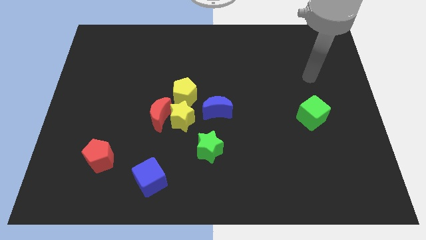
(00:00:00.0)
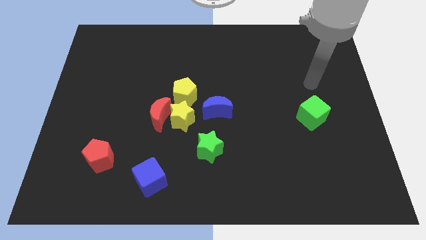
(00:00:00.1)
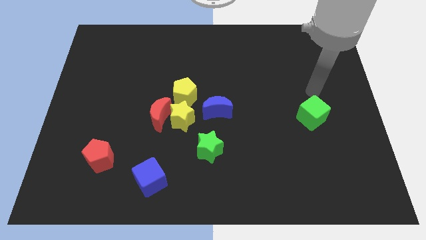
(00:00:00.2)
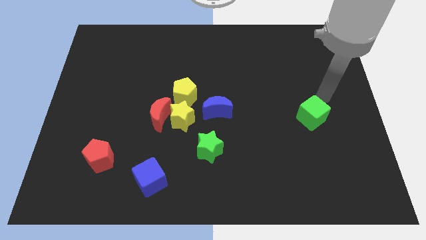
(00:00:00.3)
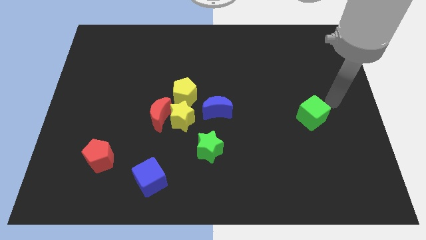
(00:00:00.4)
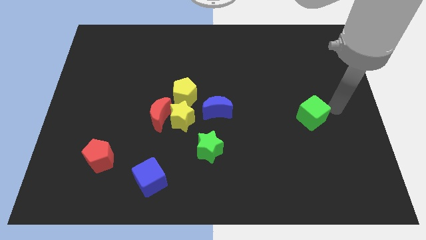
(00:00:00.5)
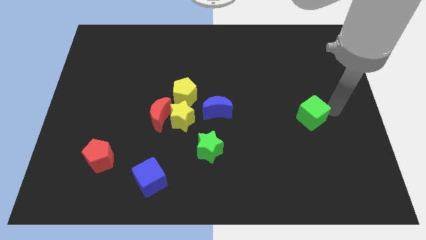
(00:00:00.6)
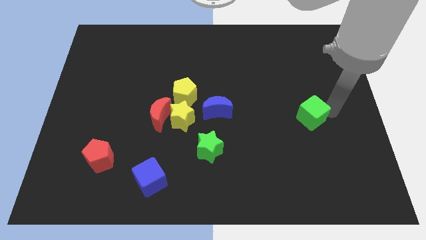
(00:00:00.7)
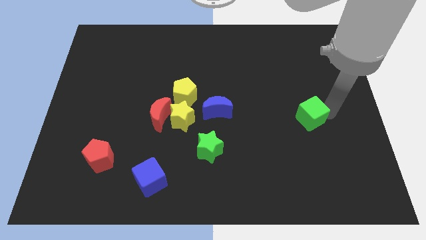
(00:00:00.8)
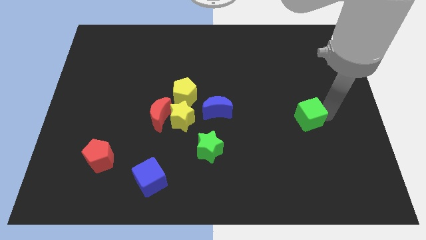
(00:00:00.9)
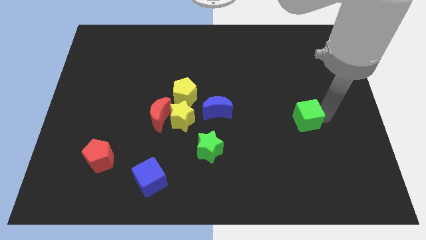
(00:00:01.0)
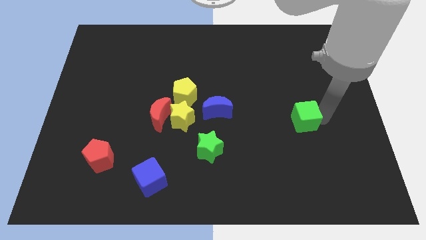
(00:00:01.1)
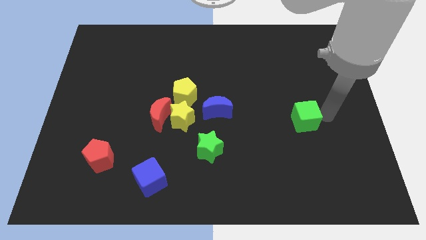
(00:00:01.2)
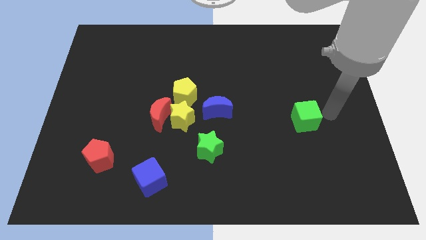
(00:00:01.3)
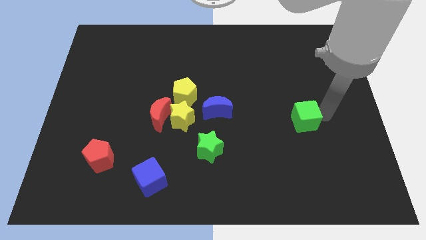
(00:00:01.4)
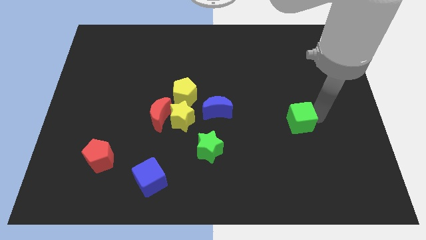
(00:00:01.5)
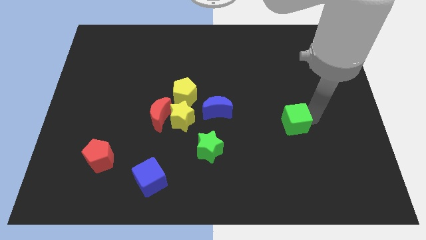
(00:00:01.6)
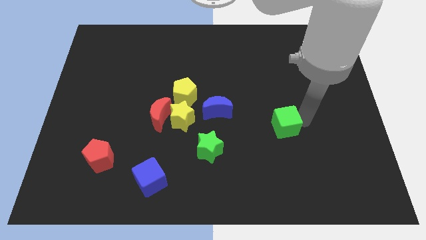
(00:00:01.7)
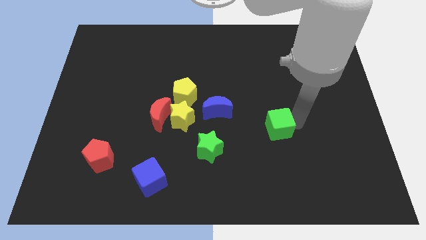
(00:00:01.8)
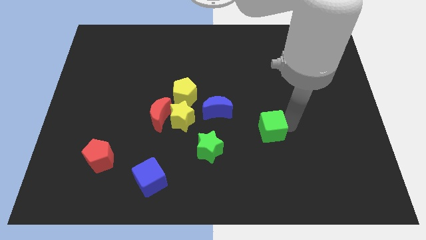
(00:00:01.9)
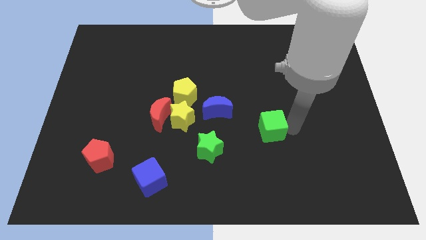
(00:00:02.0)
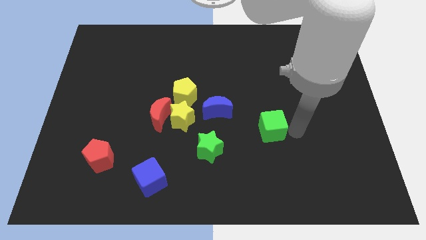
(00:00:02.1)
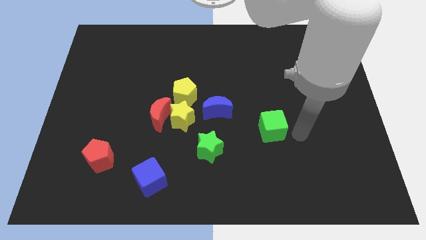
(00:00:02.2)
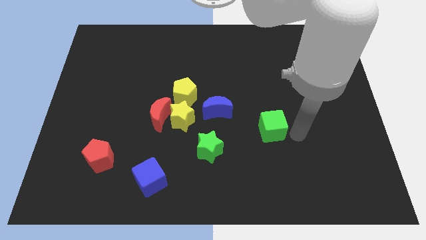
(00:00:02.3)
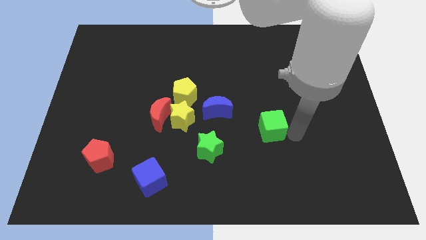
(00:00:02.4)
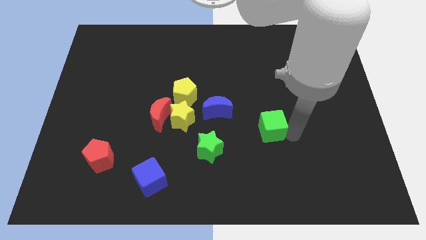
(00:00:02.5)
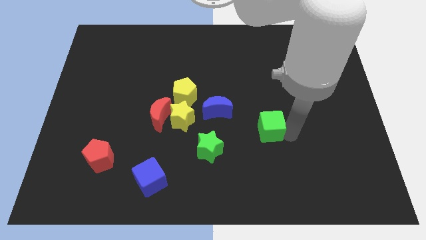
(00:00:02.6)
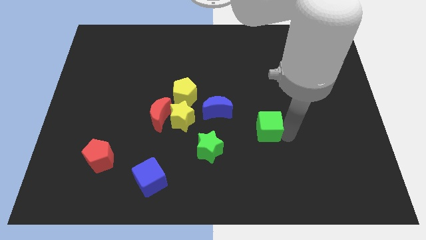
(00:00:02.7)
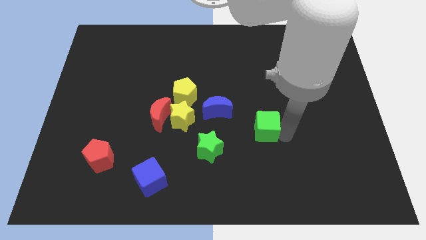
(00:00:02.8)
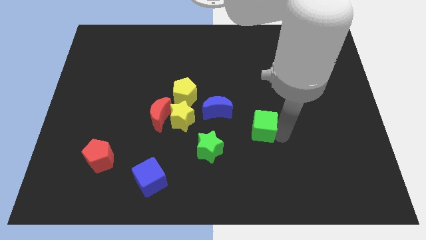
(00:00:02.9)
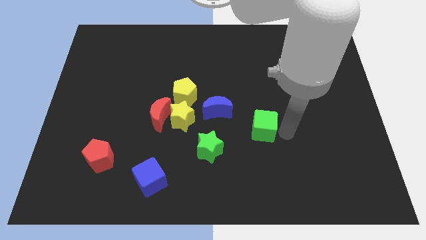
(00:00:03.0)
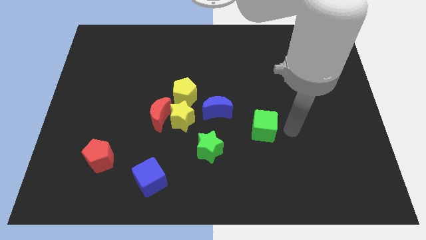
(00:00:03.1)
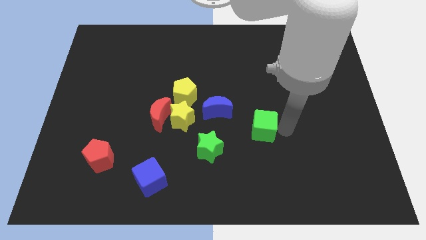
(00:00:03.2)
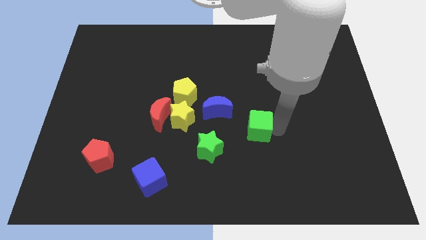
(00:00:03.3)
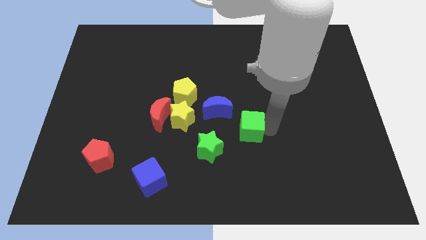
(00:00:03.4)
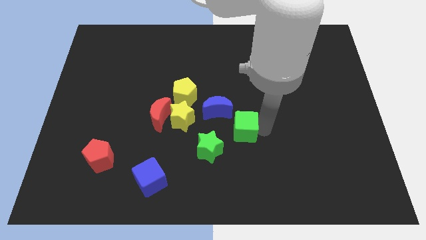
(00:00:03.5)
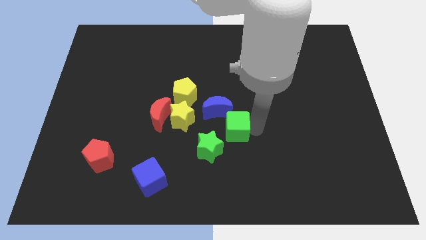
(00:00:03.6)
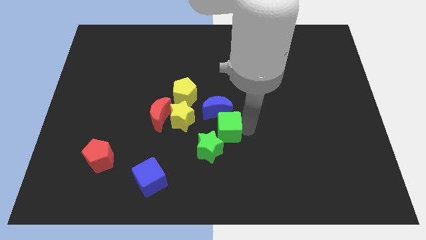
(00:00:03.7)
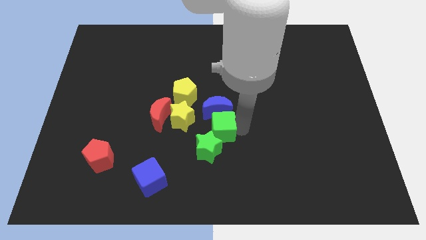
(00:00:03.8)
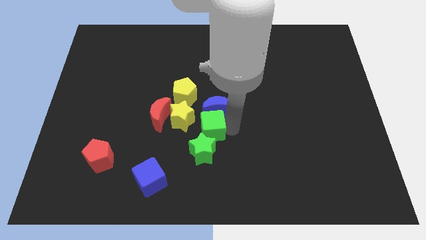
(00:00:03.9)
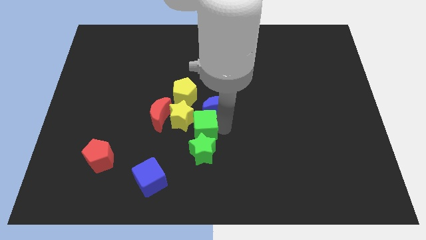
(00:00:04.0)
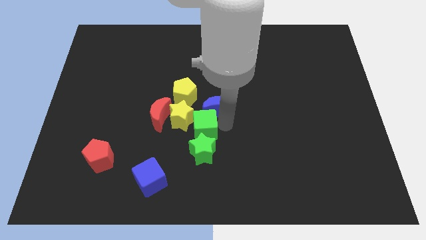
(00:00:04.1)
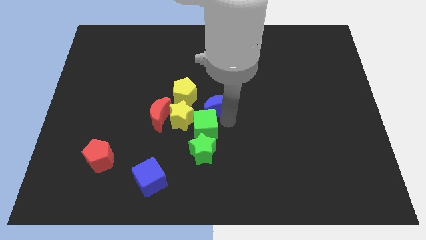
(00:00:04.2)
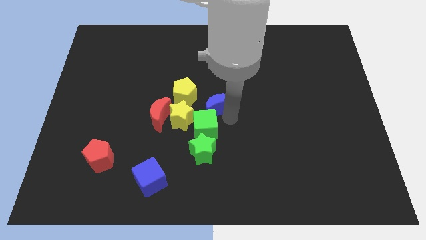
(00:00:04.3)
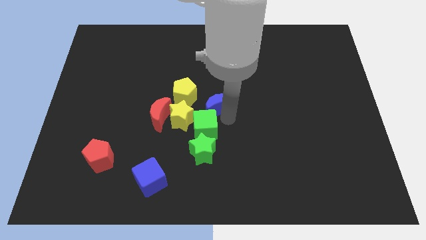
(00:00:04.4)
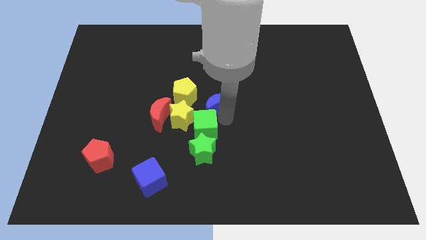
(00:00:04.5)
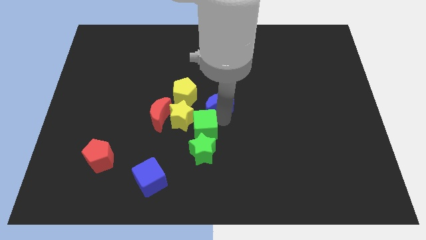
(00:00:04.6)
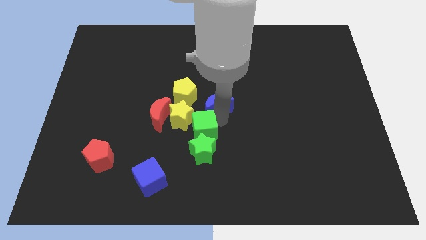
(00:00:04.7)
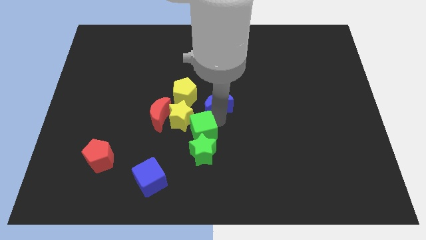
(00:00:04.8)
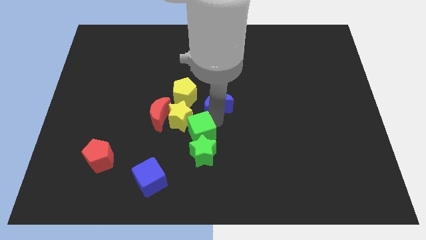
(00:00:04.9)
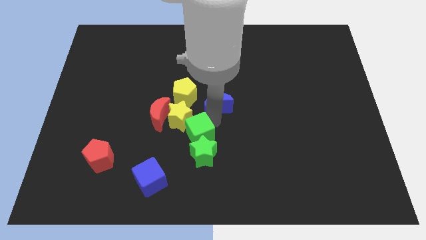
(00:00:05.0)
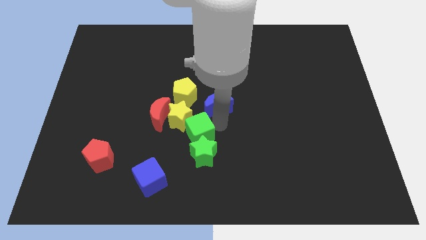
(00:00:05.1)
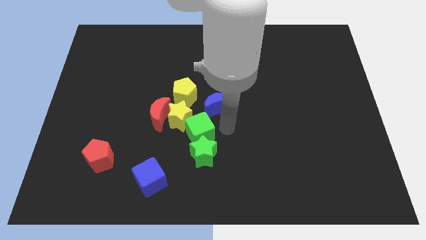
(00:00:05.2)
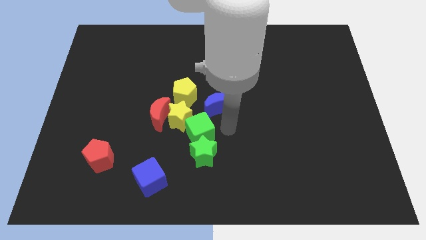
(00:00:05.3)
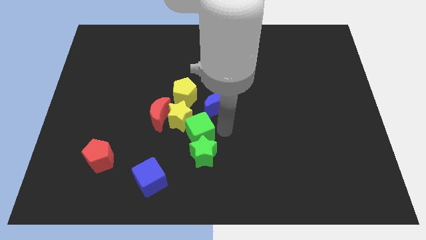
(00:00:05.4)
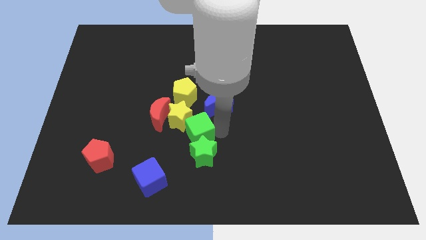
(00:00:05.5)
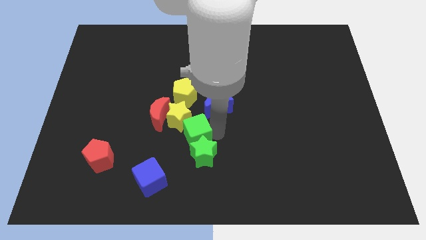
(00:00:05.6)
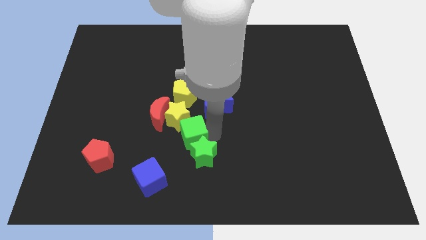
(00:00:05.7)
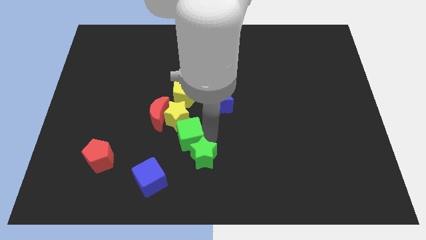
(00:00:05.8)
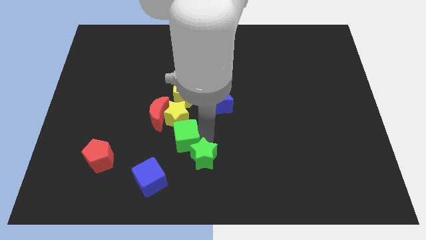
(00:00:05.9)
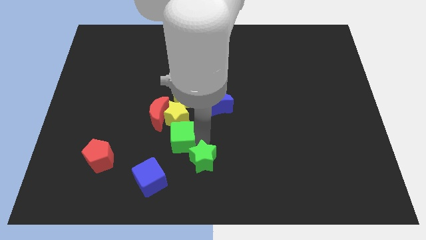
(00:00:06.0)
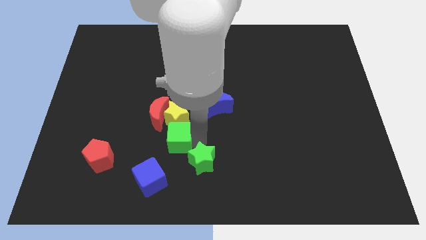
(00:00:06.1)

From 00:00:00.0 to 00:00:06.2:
slide the green cube to the bottom left of the yellow star
